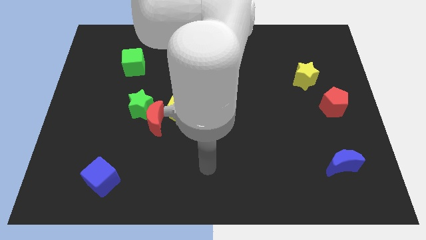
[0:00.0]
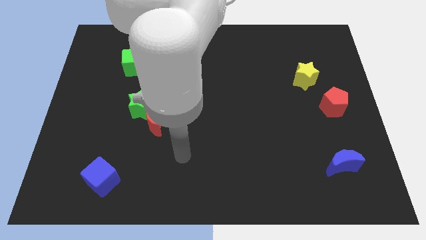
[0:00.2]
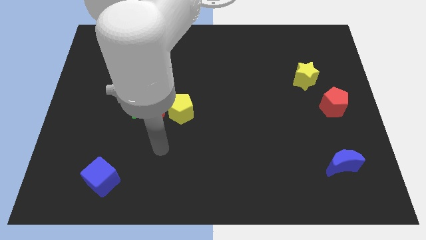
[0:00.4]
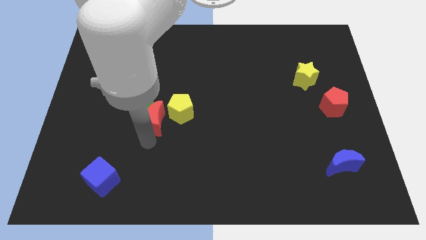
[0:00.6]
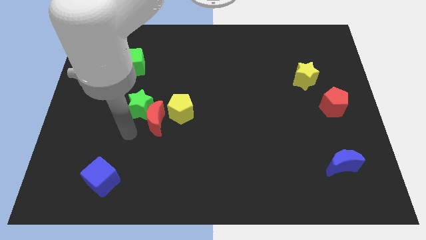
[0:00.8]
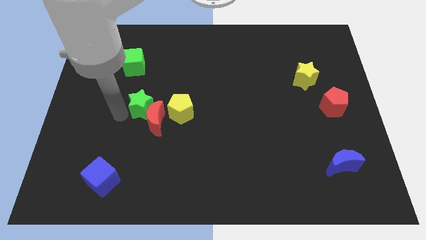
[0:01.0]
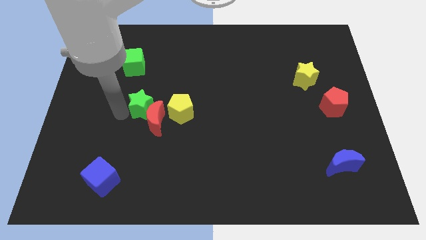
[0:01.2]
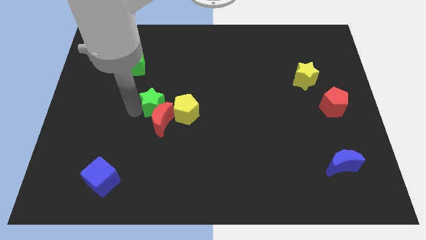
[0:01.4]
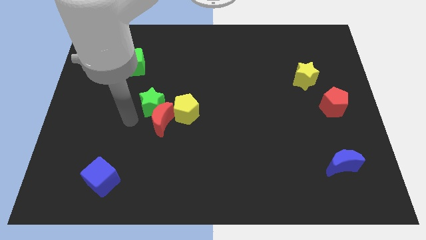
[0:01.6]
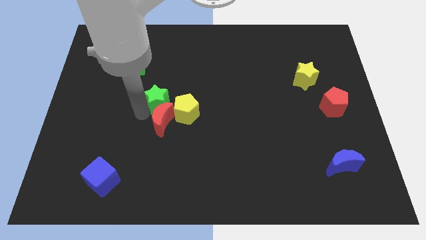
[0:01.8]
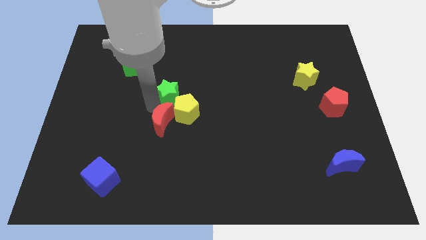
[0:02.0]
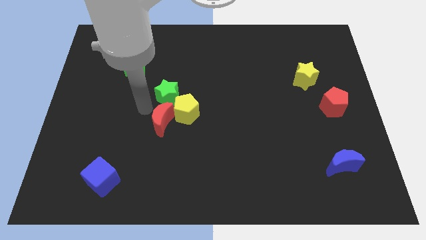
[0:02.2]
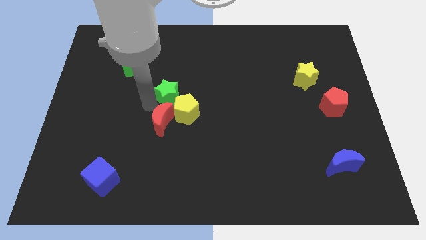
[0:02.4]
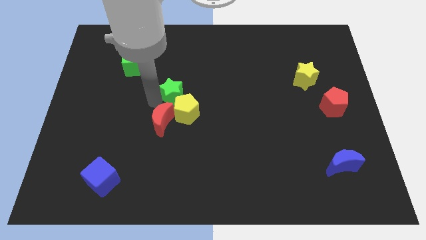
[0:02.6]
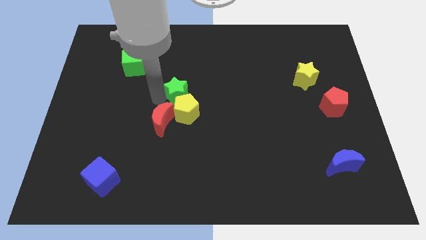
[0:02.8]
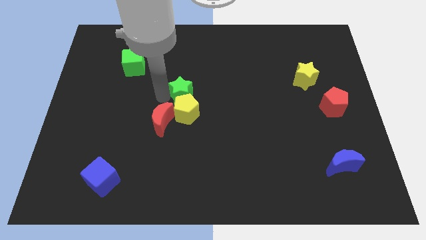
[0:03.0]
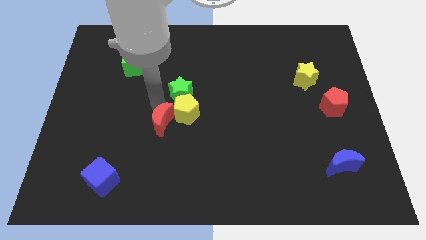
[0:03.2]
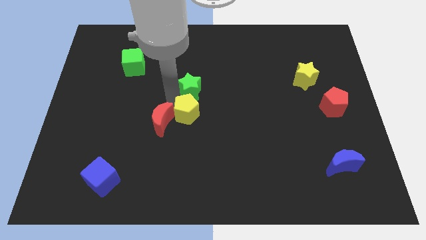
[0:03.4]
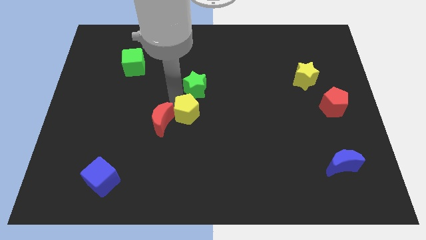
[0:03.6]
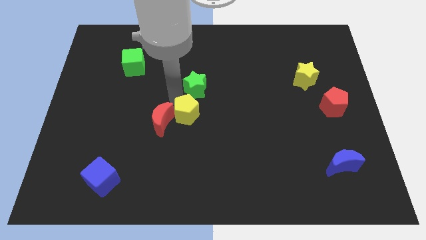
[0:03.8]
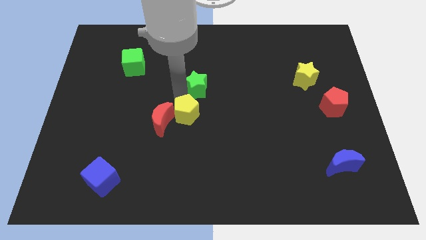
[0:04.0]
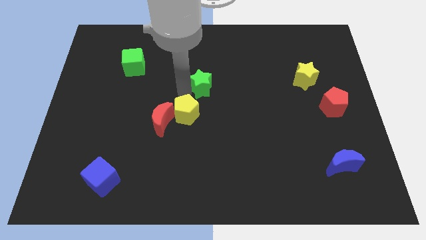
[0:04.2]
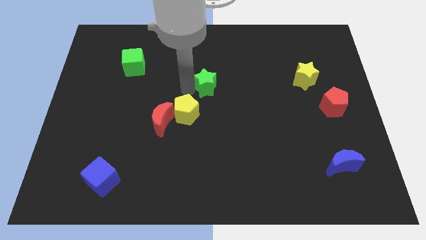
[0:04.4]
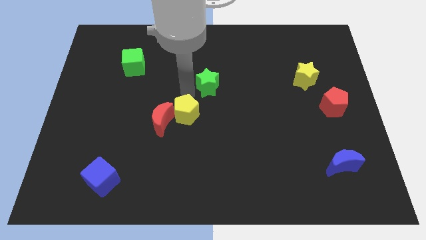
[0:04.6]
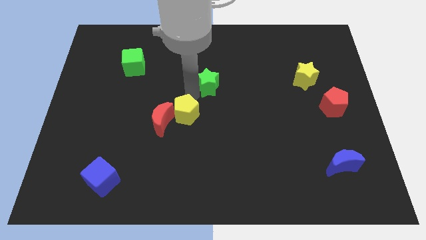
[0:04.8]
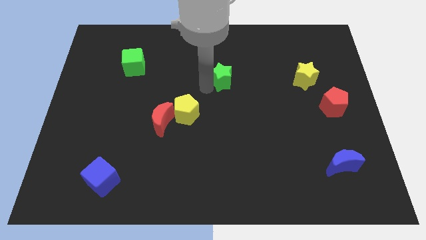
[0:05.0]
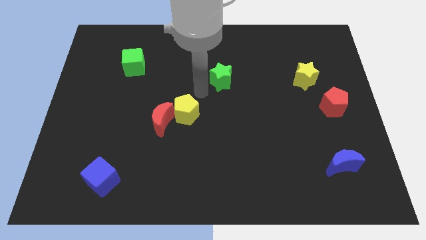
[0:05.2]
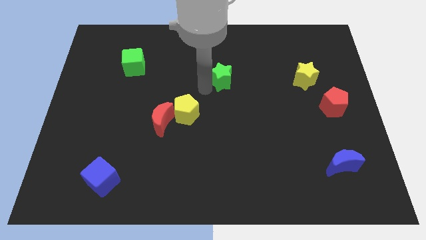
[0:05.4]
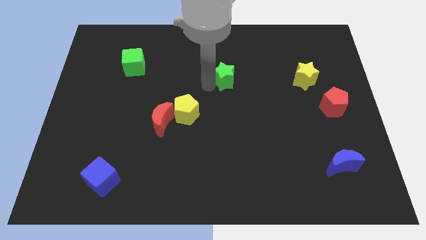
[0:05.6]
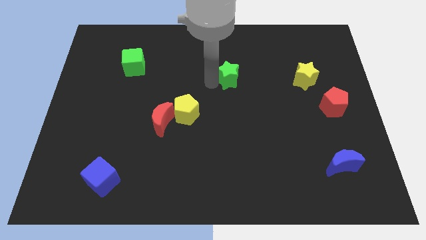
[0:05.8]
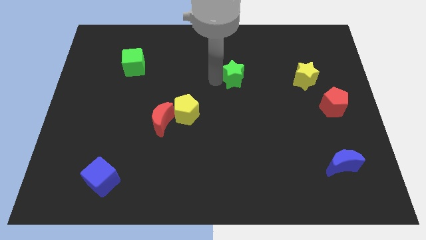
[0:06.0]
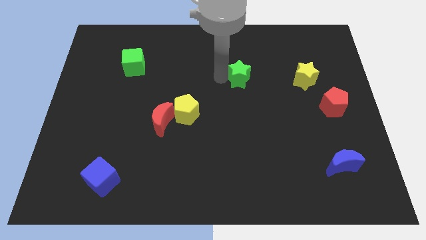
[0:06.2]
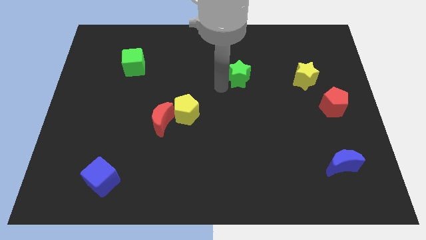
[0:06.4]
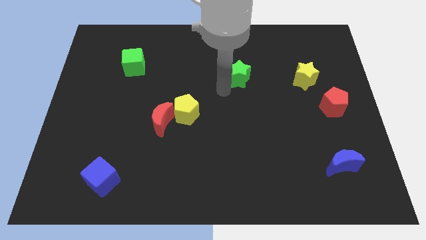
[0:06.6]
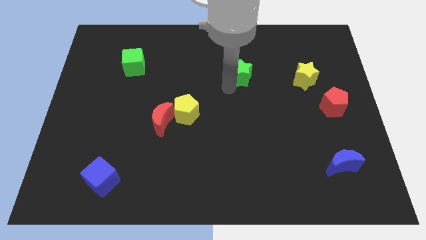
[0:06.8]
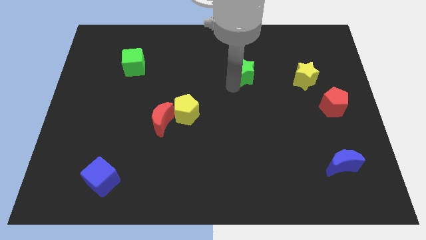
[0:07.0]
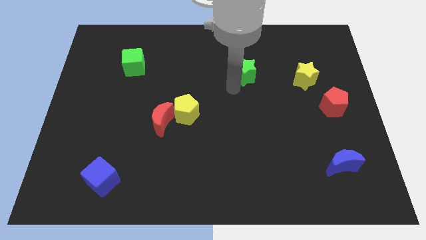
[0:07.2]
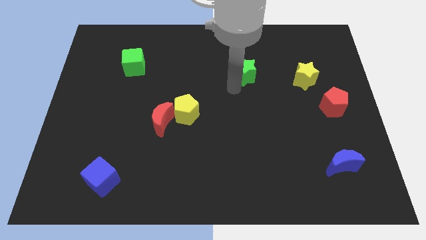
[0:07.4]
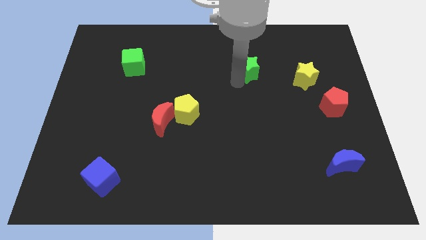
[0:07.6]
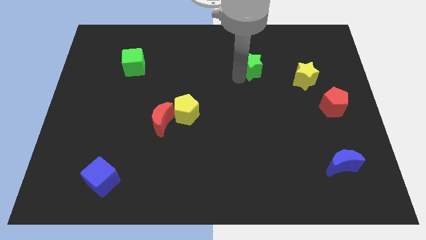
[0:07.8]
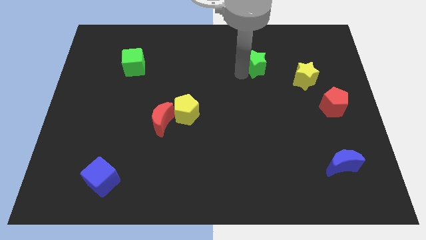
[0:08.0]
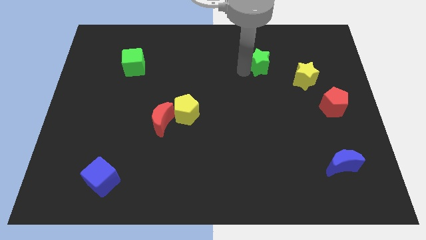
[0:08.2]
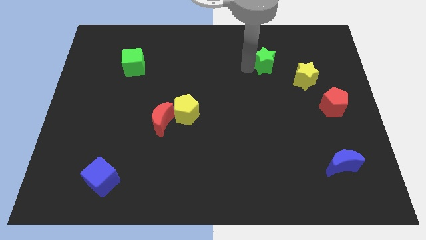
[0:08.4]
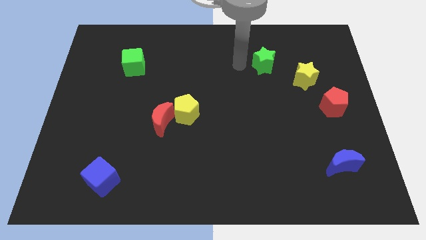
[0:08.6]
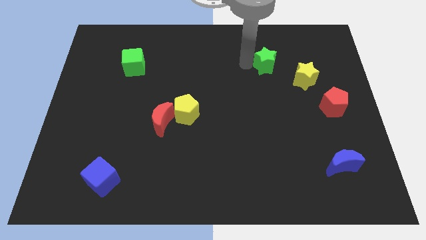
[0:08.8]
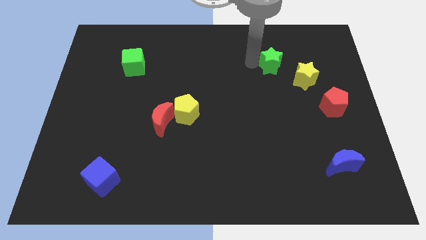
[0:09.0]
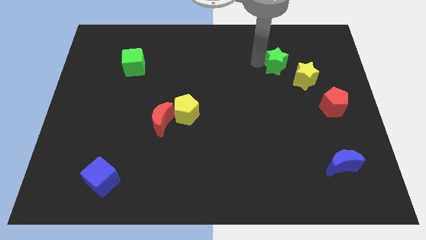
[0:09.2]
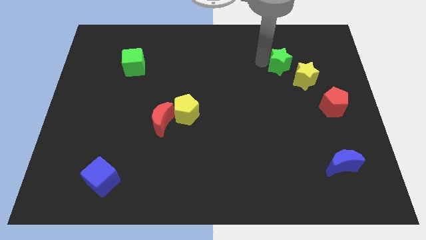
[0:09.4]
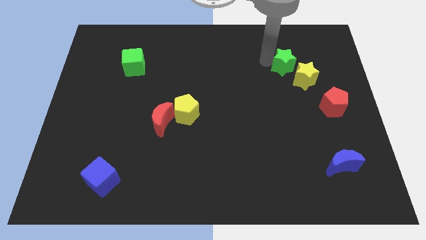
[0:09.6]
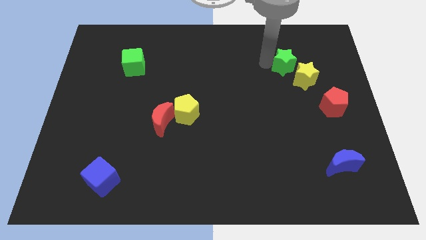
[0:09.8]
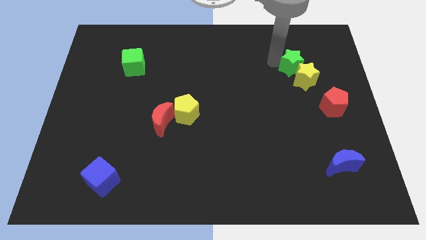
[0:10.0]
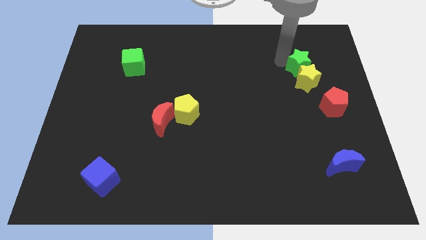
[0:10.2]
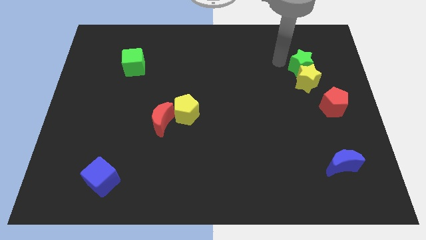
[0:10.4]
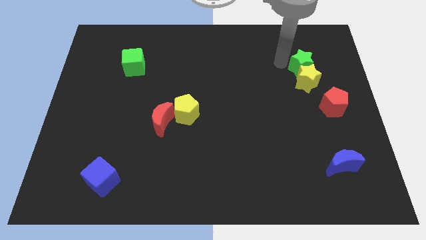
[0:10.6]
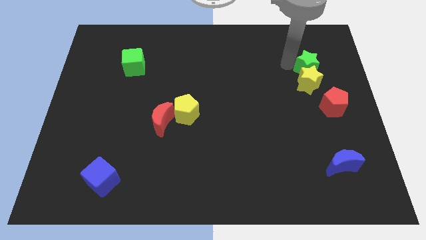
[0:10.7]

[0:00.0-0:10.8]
put the green star to the top of the red pentagon

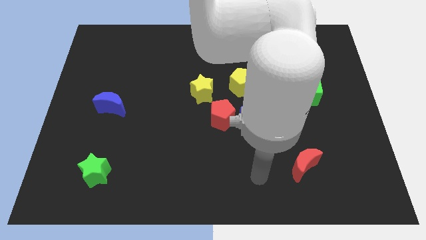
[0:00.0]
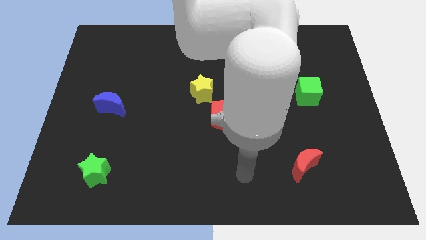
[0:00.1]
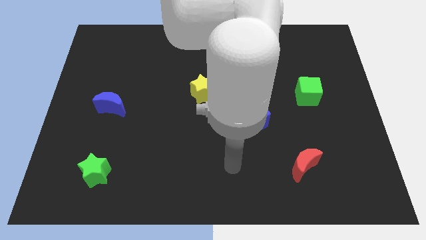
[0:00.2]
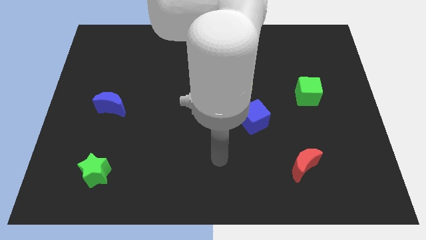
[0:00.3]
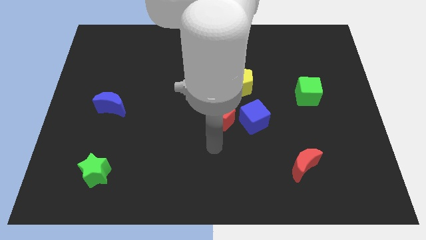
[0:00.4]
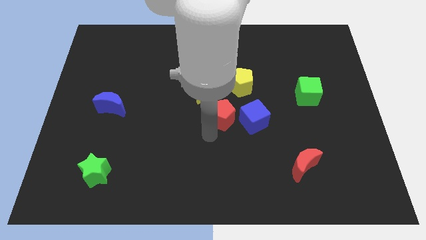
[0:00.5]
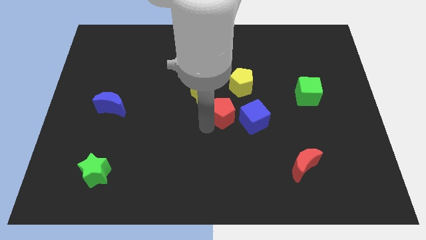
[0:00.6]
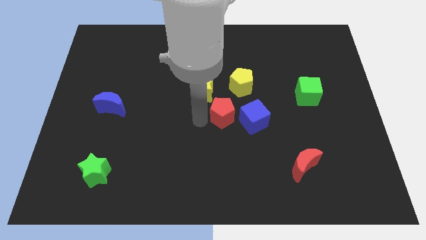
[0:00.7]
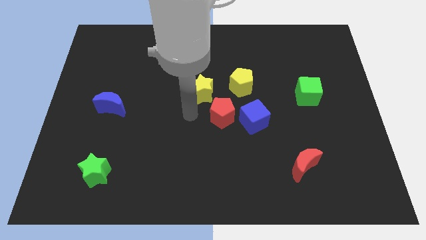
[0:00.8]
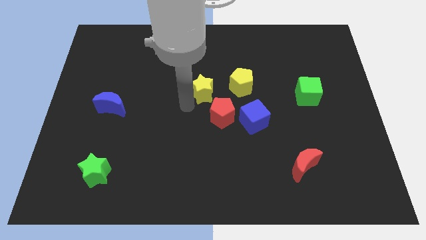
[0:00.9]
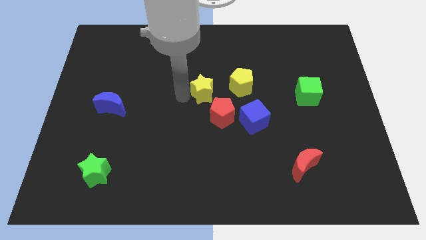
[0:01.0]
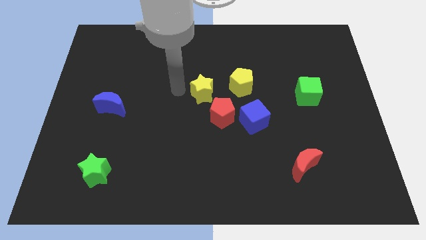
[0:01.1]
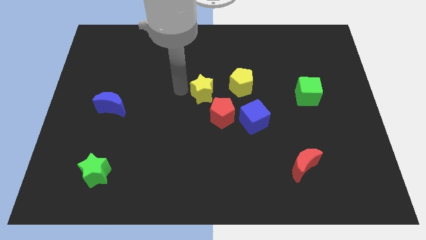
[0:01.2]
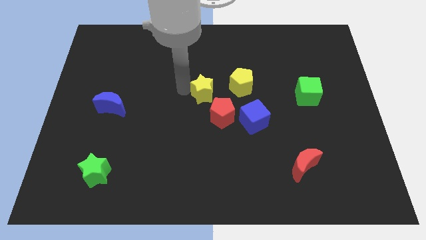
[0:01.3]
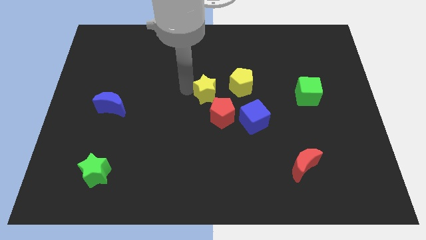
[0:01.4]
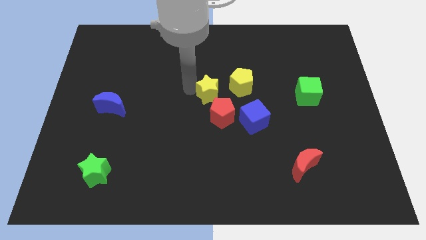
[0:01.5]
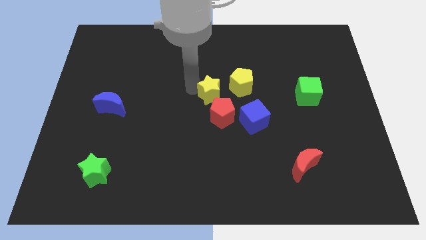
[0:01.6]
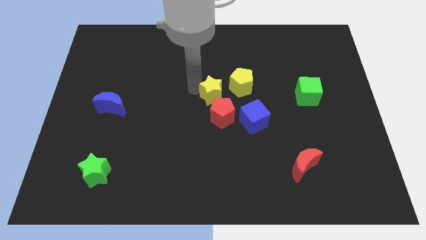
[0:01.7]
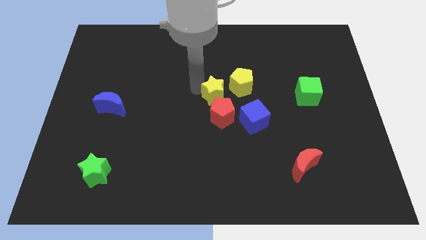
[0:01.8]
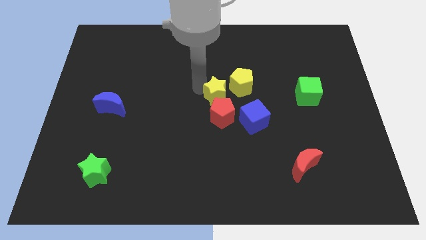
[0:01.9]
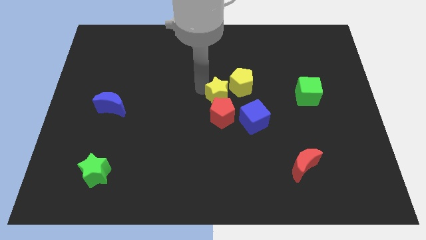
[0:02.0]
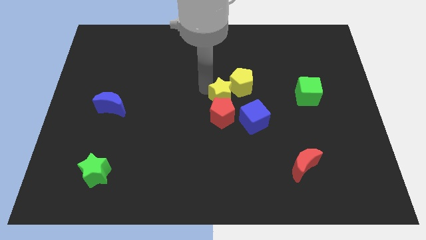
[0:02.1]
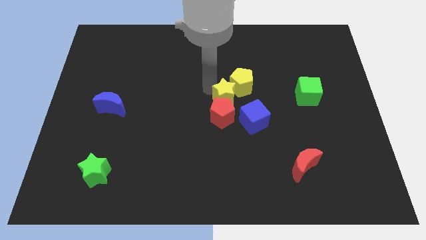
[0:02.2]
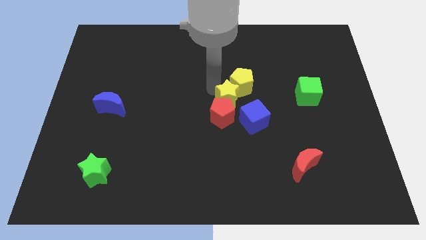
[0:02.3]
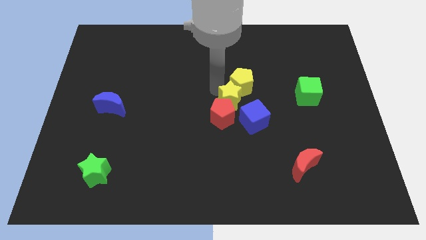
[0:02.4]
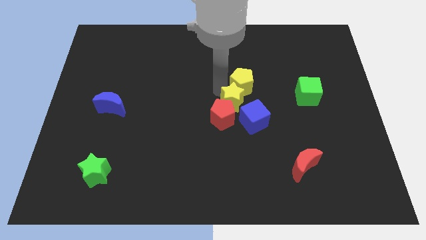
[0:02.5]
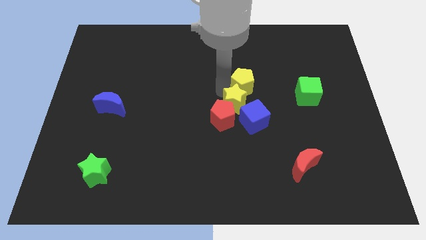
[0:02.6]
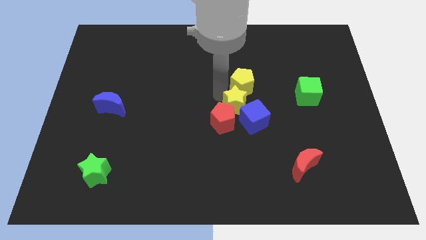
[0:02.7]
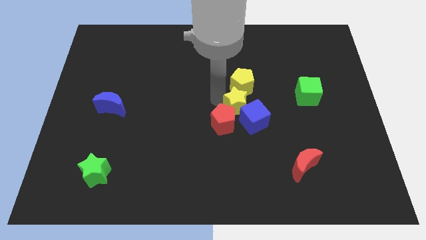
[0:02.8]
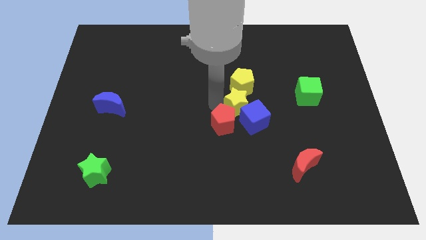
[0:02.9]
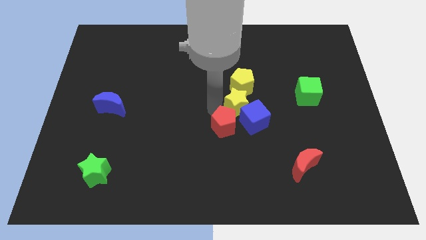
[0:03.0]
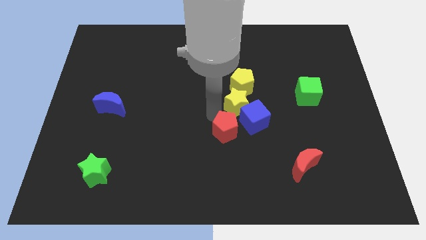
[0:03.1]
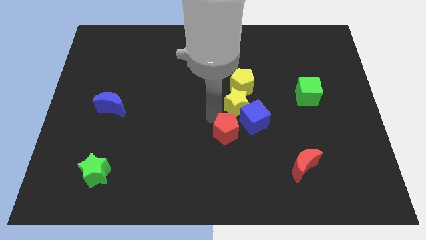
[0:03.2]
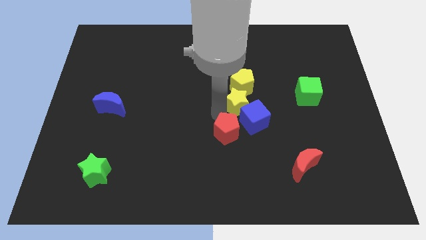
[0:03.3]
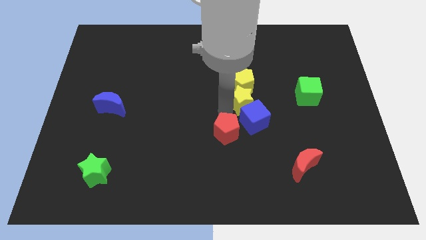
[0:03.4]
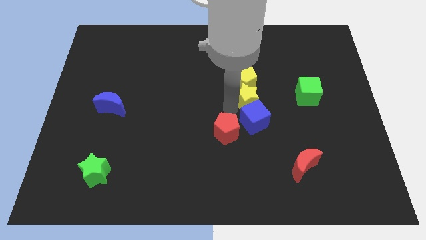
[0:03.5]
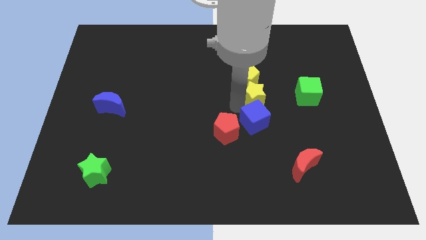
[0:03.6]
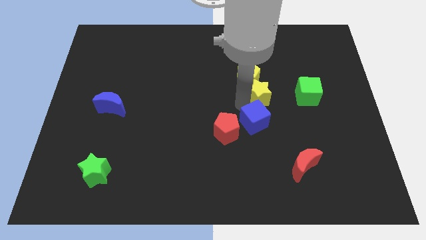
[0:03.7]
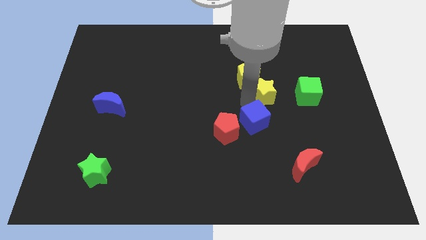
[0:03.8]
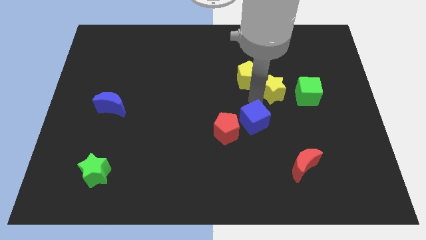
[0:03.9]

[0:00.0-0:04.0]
slide the yellow star to the right side of the yellow pentagon
